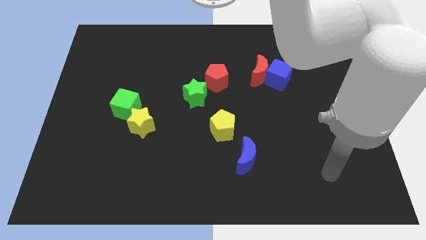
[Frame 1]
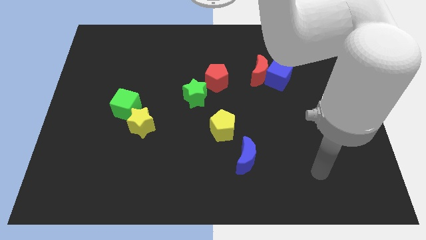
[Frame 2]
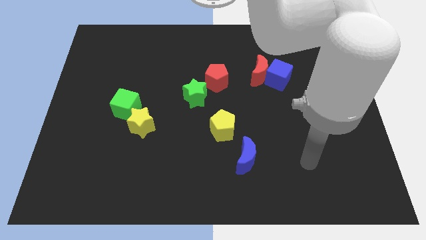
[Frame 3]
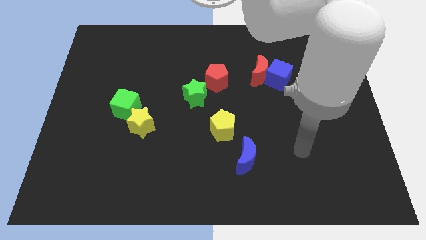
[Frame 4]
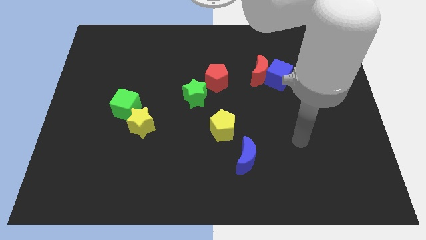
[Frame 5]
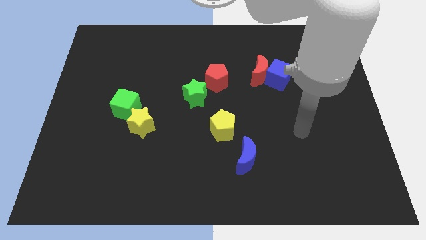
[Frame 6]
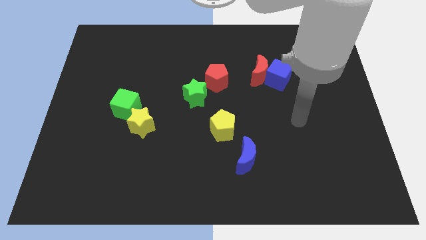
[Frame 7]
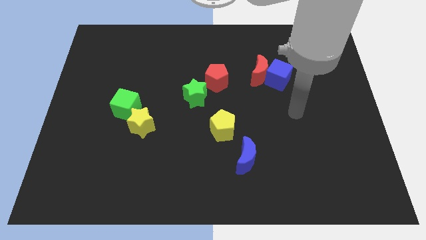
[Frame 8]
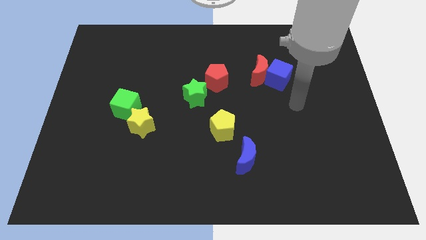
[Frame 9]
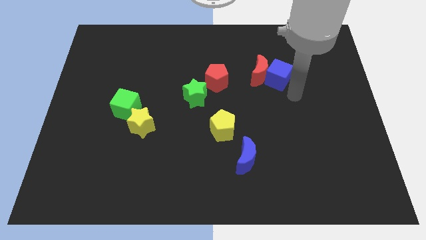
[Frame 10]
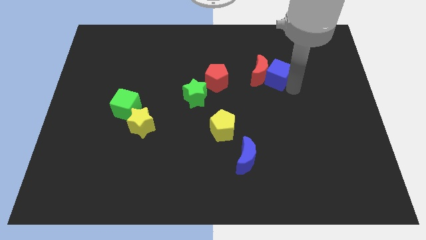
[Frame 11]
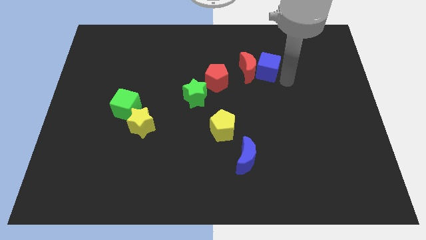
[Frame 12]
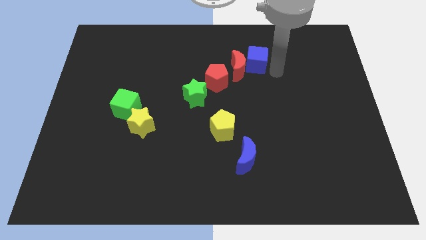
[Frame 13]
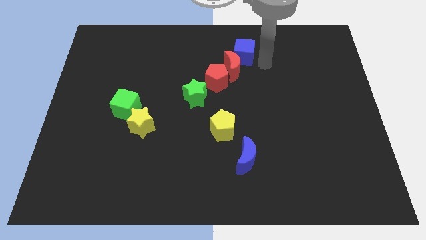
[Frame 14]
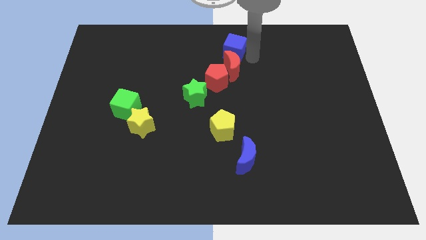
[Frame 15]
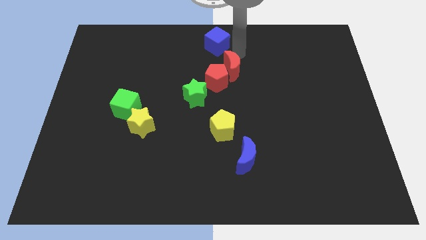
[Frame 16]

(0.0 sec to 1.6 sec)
separate the red moon from the blue cube

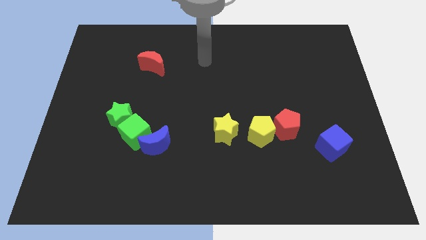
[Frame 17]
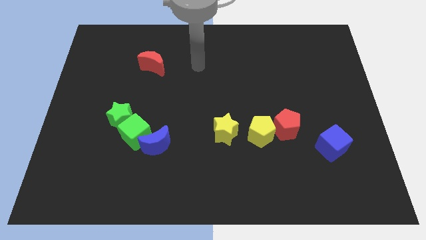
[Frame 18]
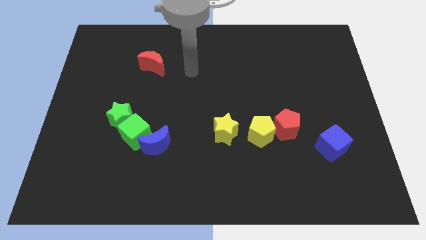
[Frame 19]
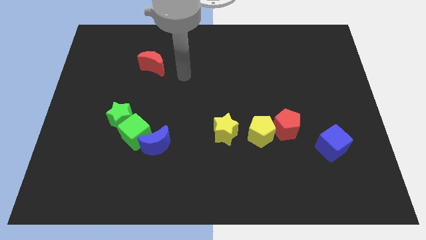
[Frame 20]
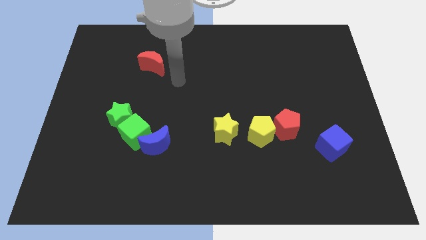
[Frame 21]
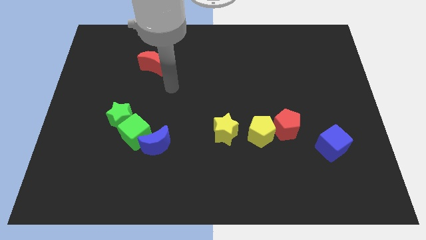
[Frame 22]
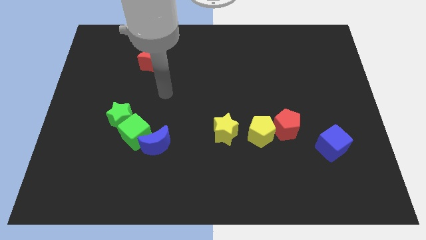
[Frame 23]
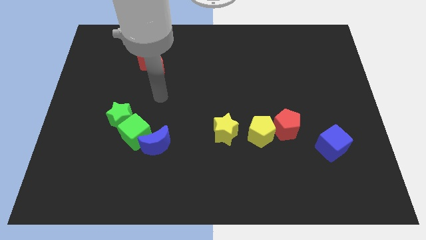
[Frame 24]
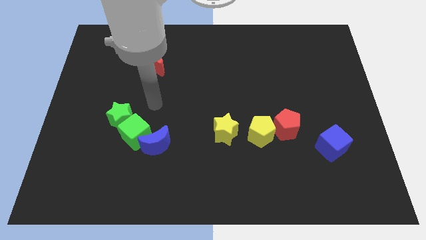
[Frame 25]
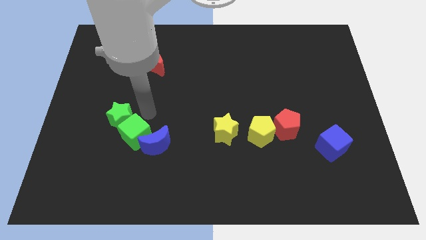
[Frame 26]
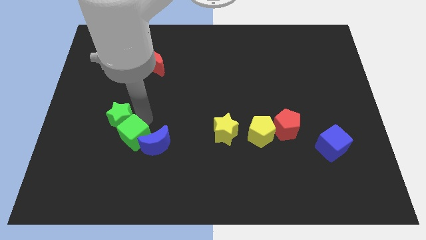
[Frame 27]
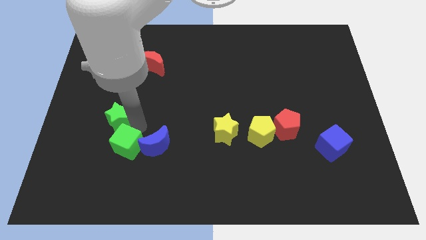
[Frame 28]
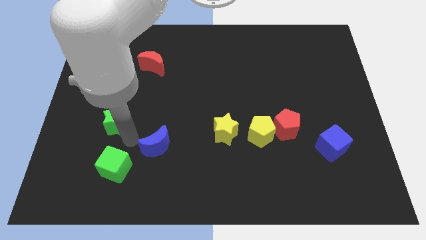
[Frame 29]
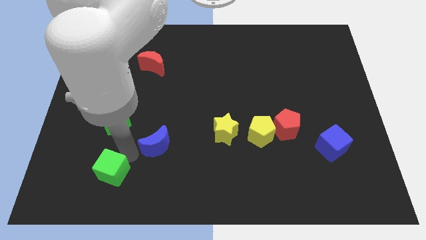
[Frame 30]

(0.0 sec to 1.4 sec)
pull the blue moon apart from the green cube

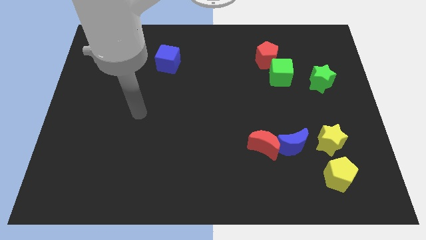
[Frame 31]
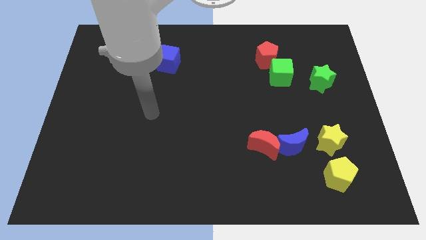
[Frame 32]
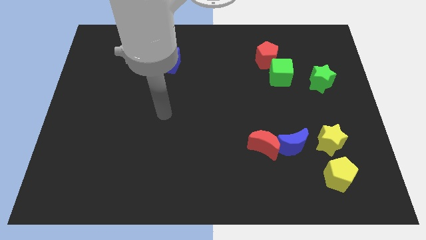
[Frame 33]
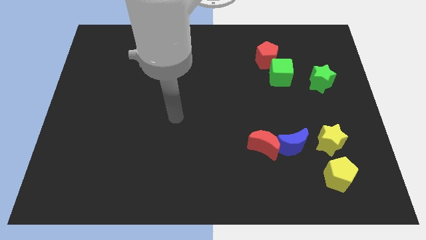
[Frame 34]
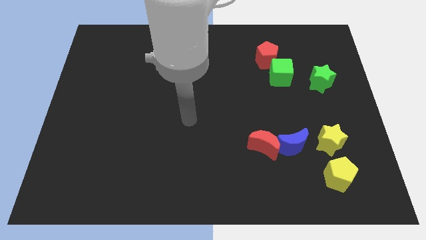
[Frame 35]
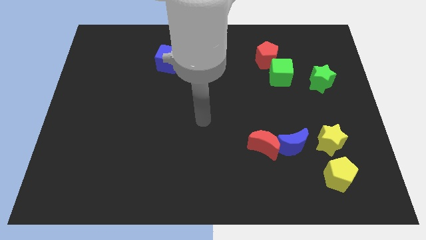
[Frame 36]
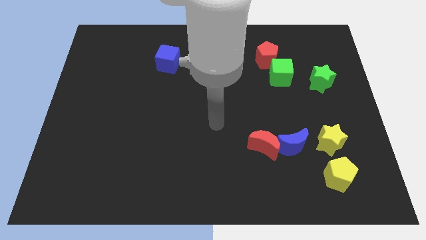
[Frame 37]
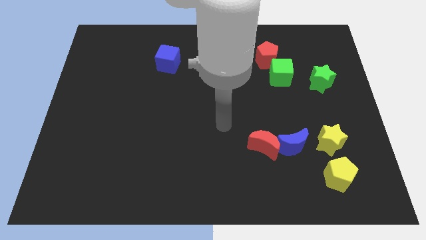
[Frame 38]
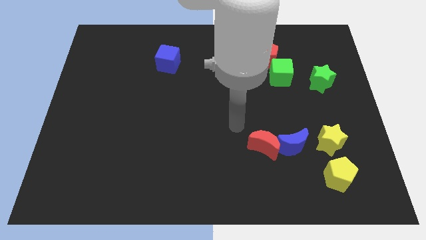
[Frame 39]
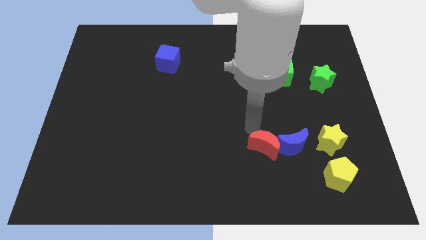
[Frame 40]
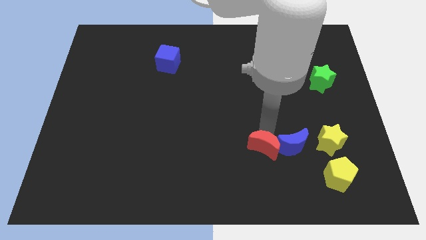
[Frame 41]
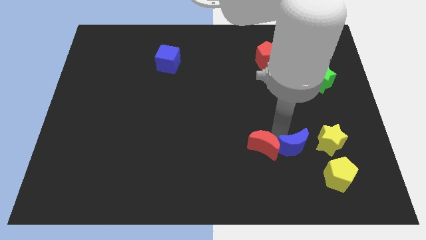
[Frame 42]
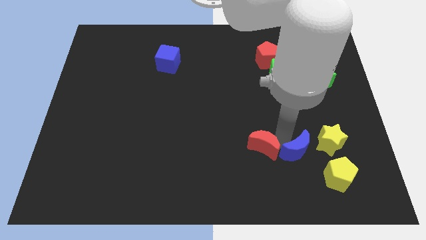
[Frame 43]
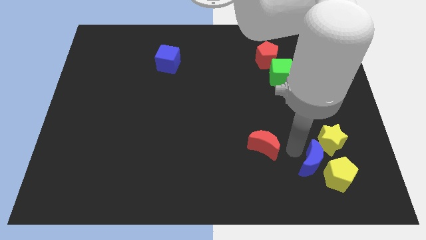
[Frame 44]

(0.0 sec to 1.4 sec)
move the red moon away from the blue moon

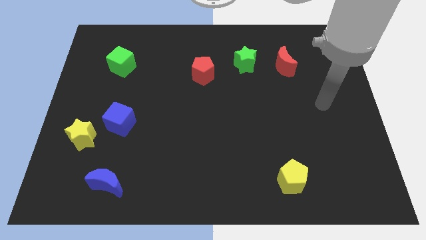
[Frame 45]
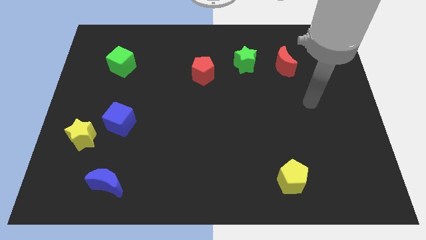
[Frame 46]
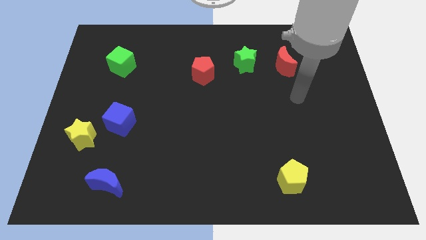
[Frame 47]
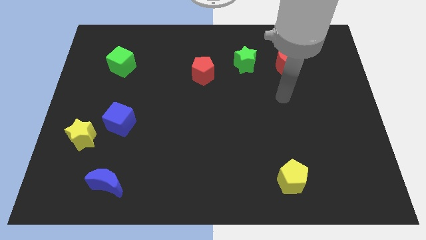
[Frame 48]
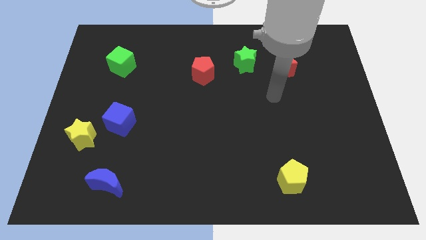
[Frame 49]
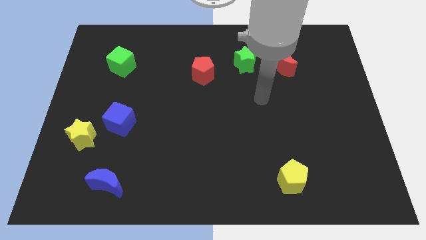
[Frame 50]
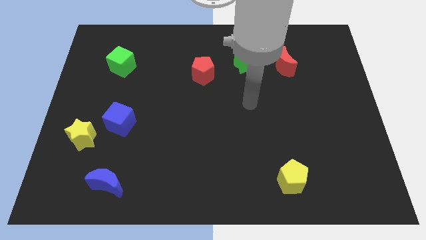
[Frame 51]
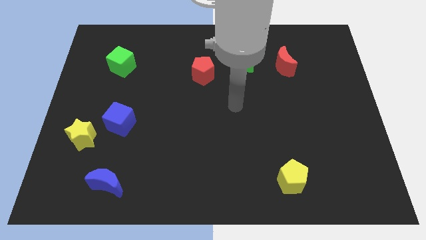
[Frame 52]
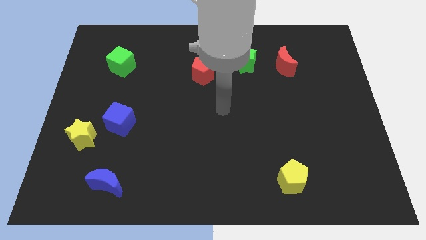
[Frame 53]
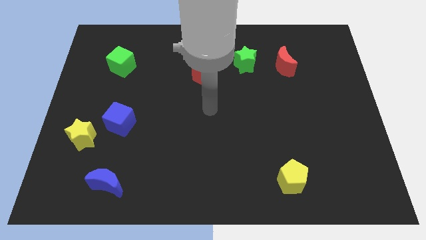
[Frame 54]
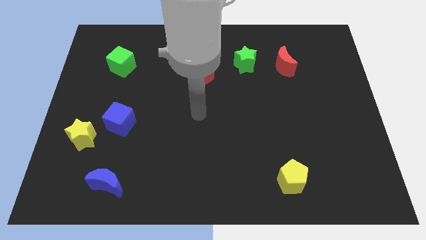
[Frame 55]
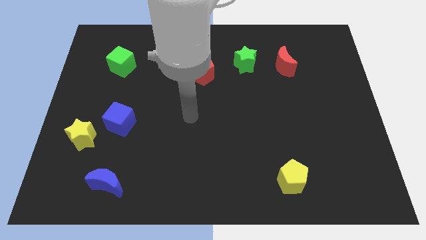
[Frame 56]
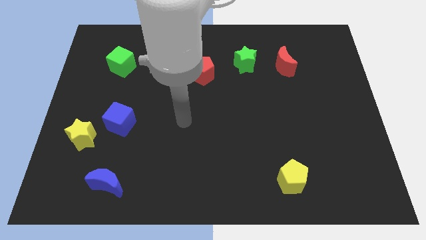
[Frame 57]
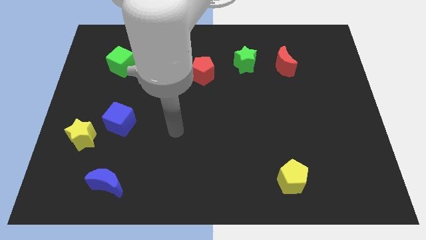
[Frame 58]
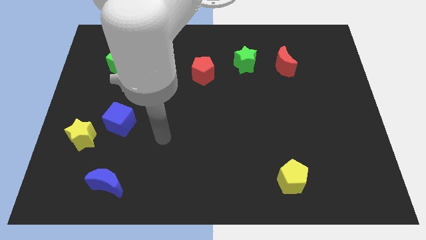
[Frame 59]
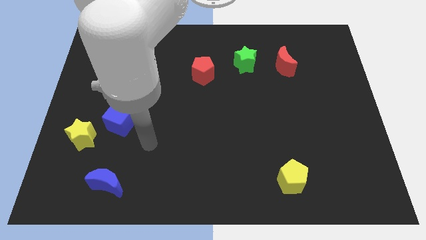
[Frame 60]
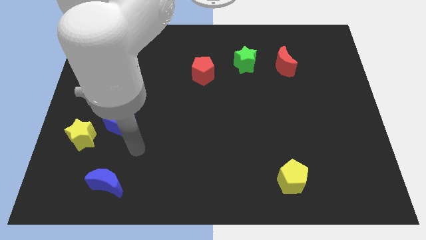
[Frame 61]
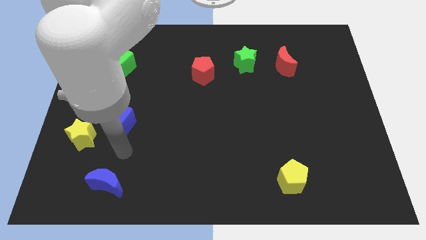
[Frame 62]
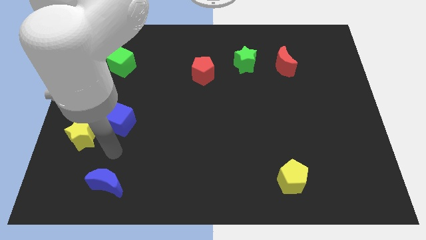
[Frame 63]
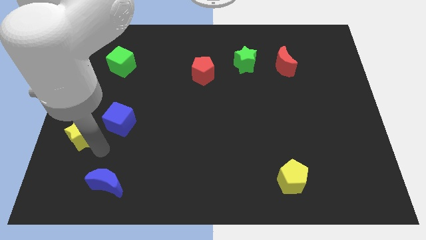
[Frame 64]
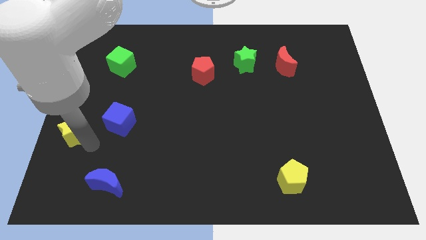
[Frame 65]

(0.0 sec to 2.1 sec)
pull the blue cube apart from the yellow star

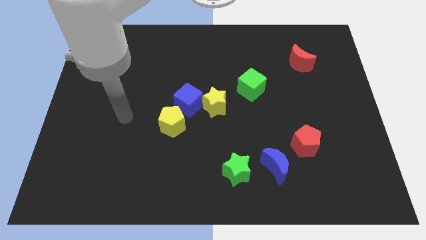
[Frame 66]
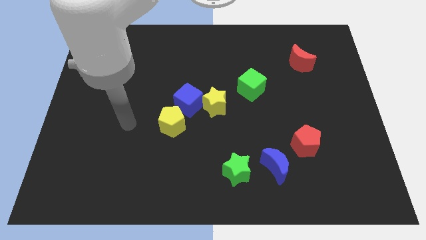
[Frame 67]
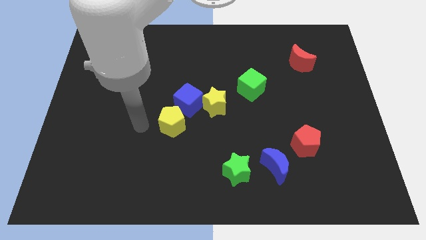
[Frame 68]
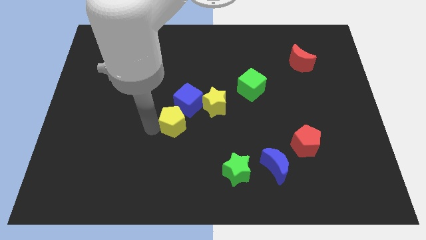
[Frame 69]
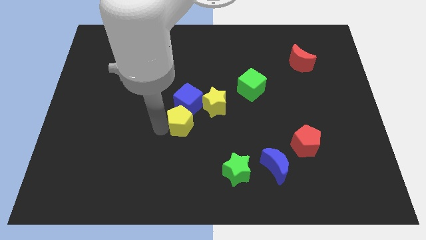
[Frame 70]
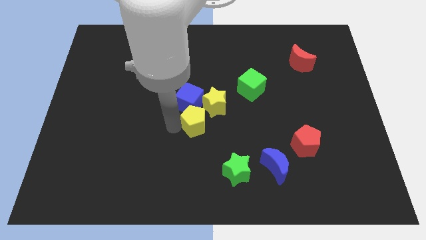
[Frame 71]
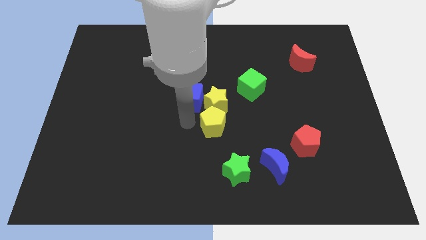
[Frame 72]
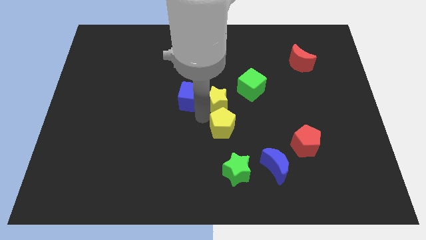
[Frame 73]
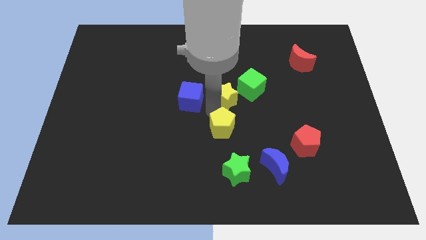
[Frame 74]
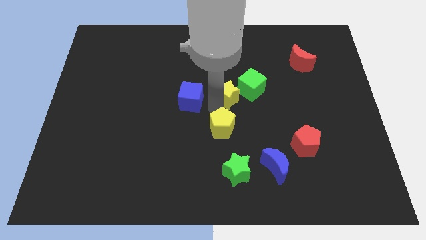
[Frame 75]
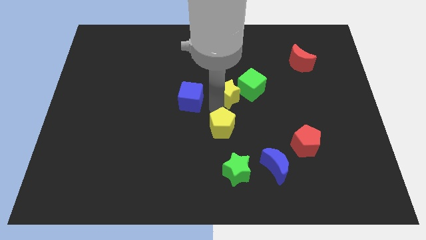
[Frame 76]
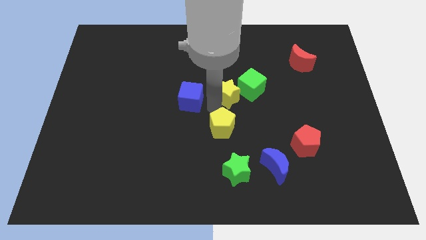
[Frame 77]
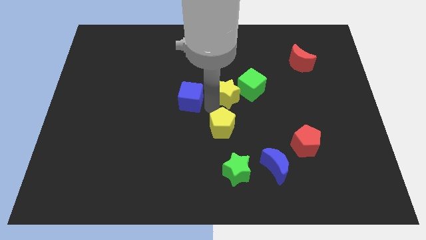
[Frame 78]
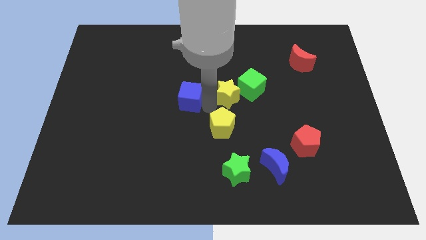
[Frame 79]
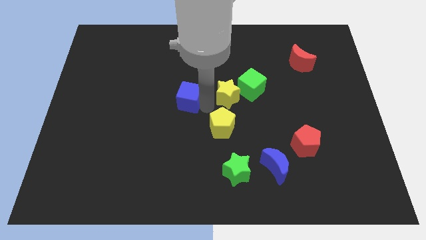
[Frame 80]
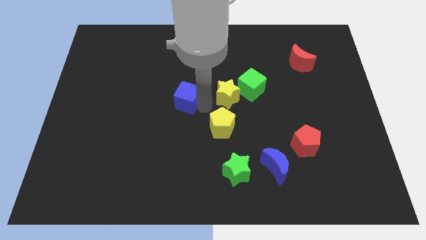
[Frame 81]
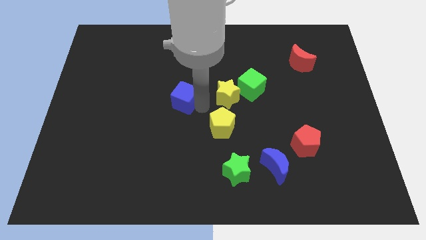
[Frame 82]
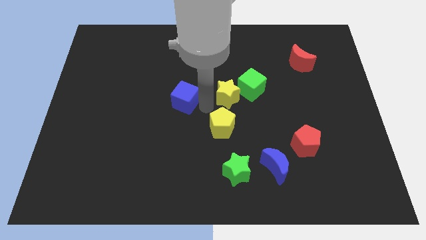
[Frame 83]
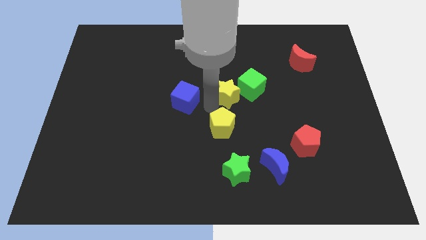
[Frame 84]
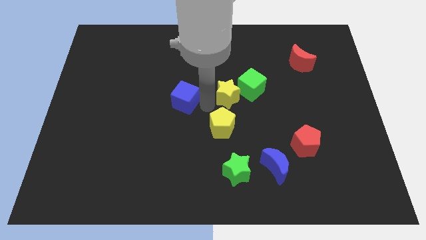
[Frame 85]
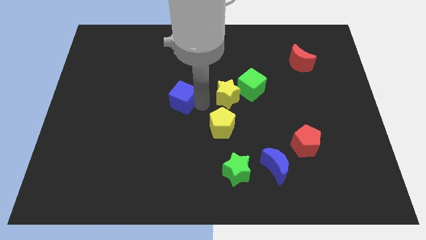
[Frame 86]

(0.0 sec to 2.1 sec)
separate the blue cube from the yellow star and yellow pentagon

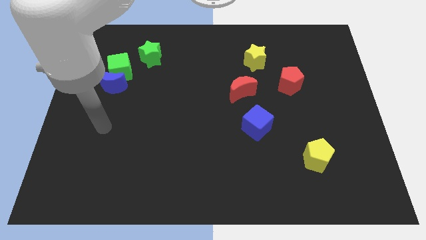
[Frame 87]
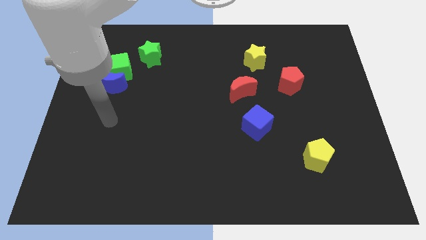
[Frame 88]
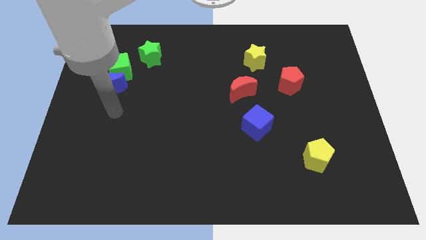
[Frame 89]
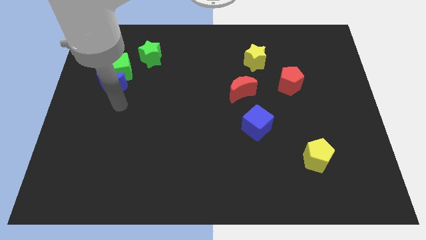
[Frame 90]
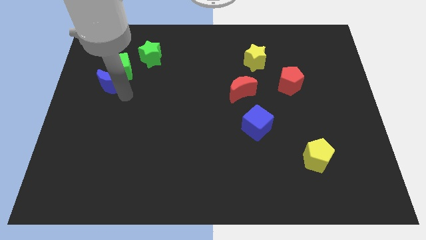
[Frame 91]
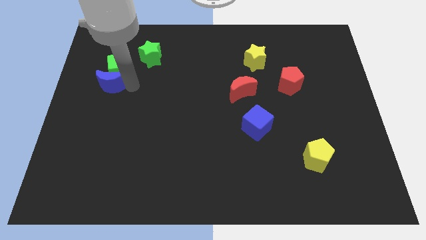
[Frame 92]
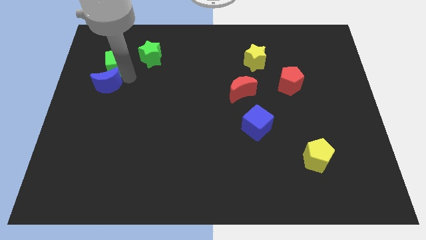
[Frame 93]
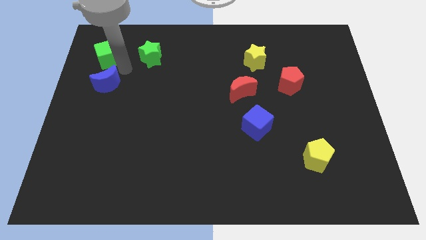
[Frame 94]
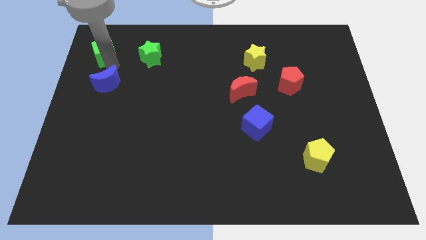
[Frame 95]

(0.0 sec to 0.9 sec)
separate the blue moon from the green cube
